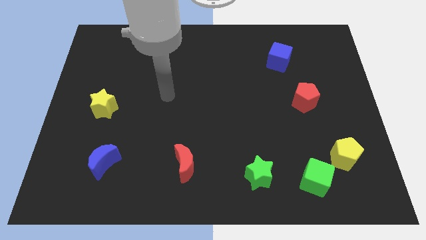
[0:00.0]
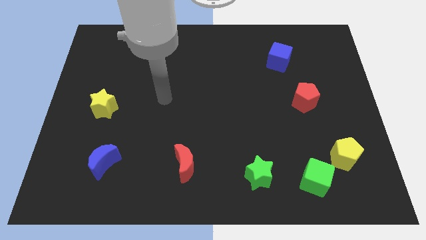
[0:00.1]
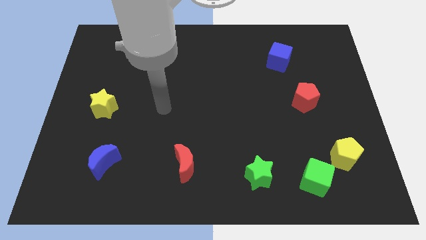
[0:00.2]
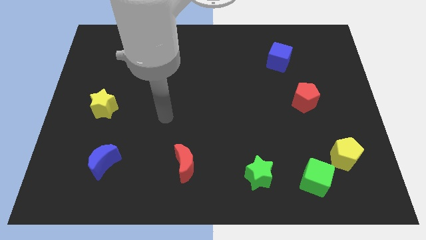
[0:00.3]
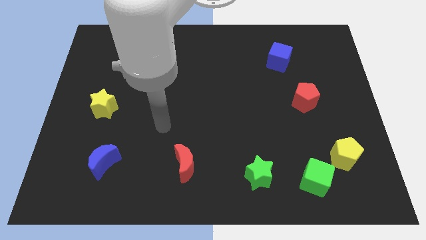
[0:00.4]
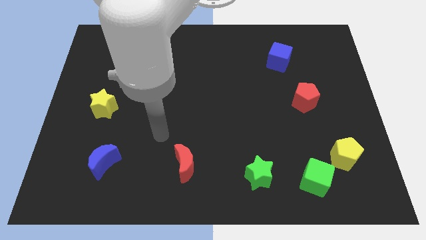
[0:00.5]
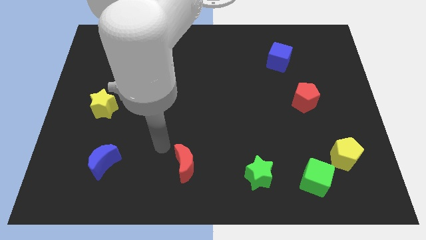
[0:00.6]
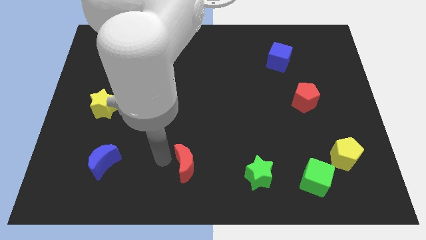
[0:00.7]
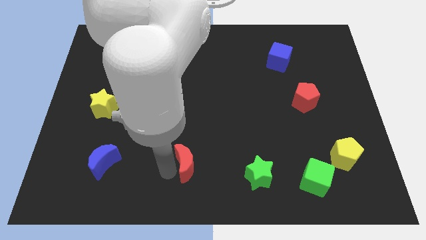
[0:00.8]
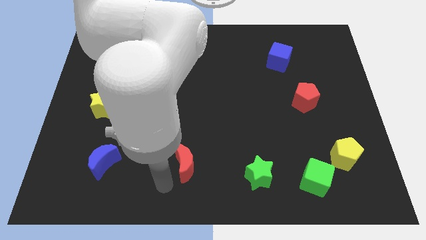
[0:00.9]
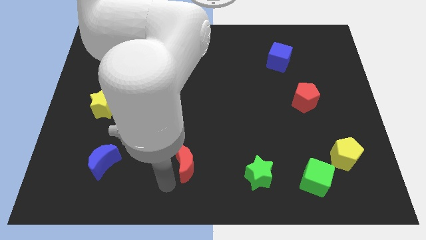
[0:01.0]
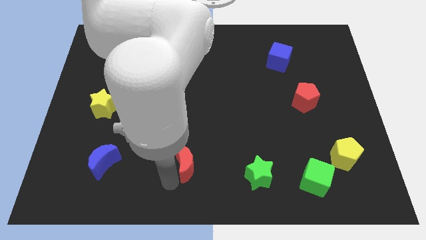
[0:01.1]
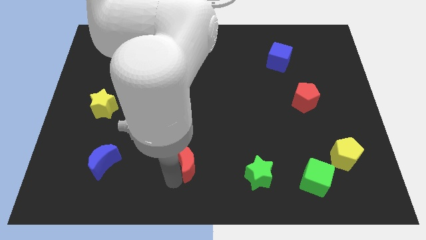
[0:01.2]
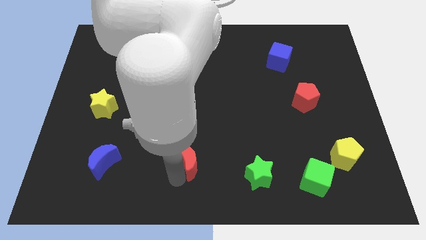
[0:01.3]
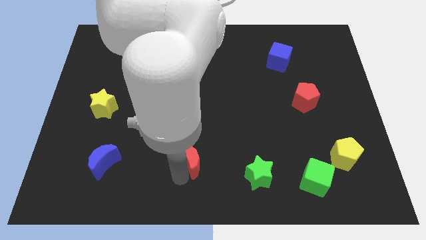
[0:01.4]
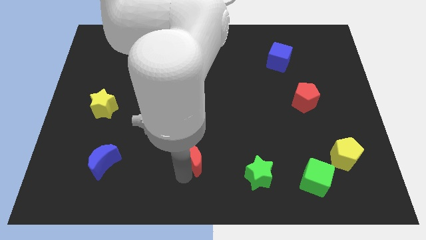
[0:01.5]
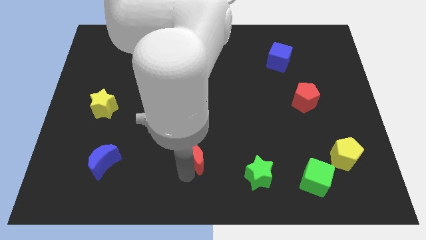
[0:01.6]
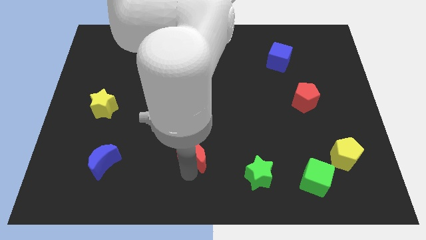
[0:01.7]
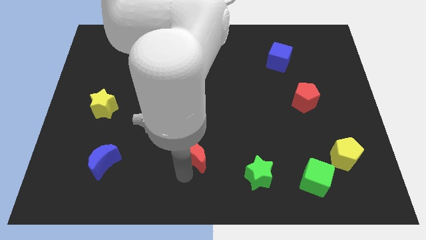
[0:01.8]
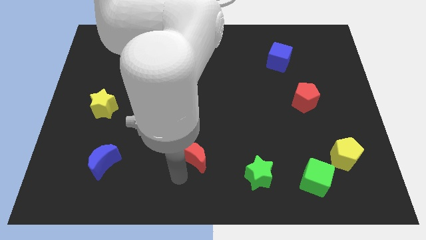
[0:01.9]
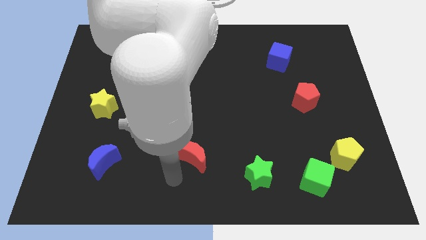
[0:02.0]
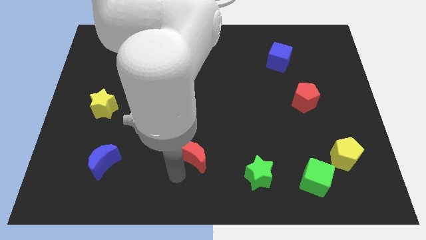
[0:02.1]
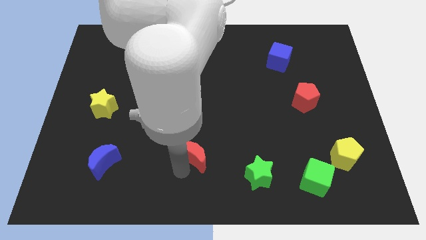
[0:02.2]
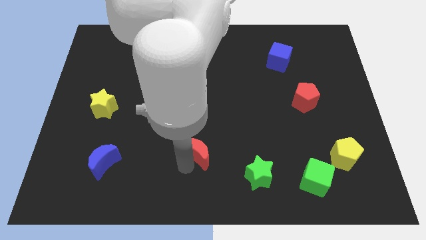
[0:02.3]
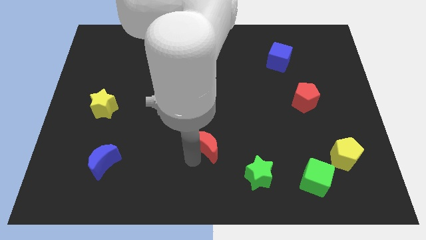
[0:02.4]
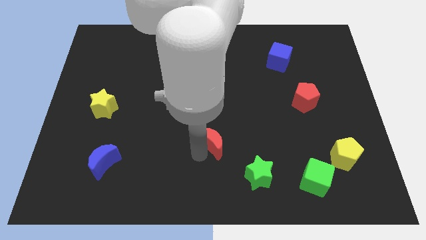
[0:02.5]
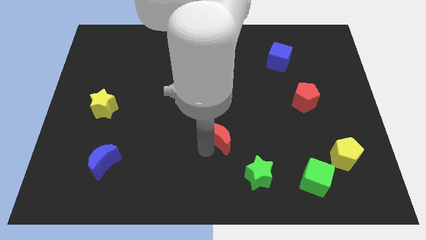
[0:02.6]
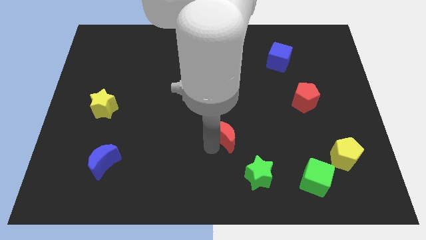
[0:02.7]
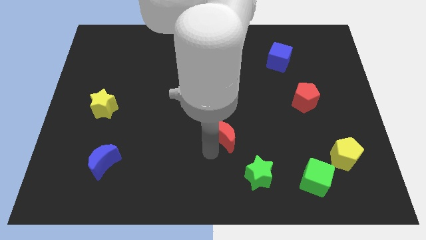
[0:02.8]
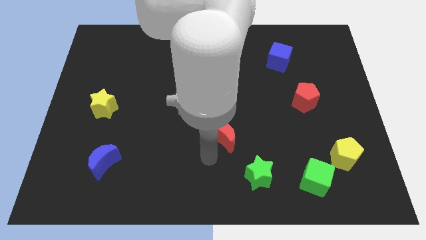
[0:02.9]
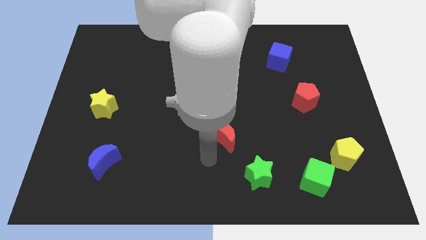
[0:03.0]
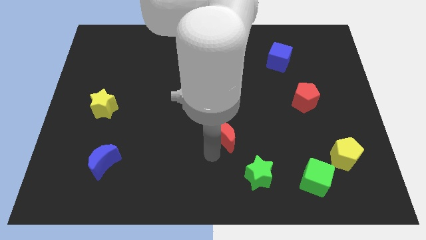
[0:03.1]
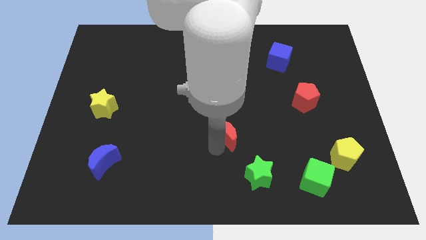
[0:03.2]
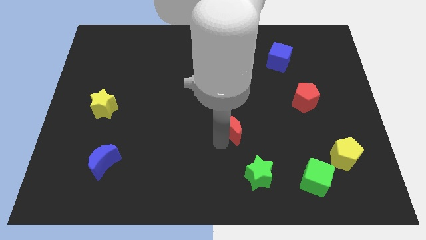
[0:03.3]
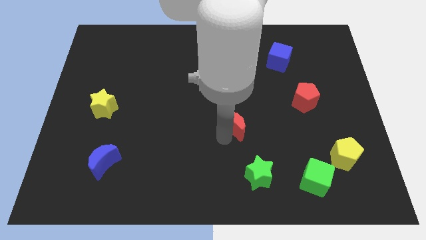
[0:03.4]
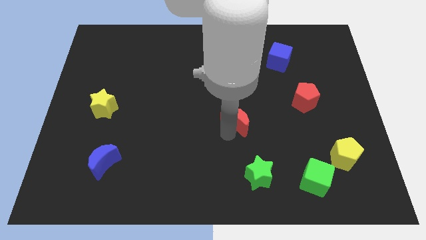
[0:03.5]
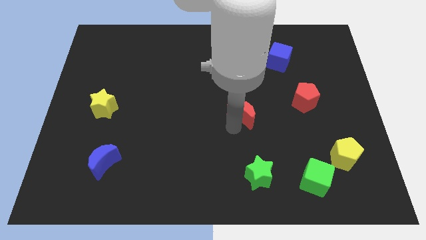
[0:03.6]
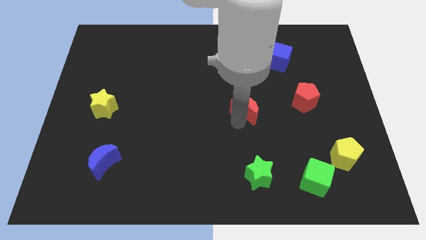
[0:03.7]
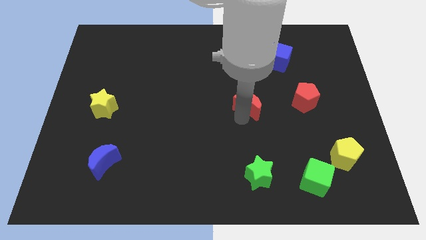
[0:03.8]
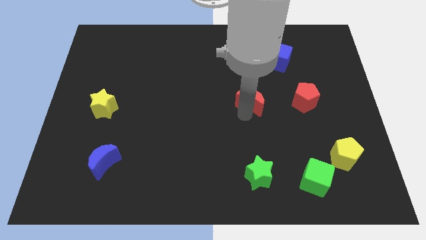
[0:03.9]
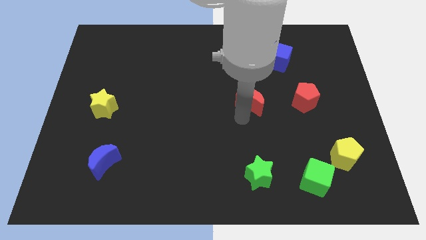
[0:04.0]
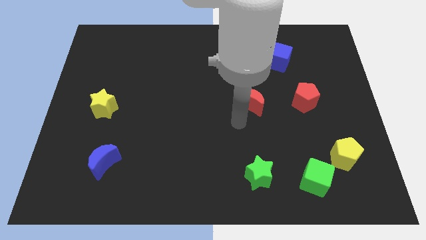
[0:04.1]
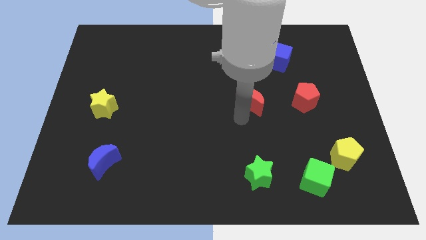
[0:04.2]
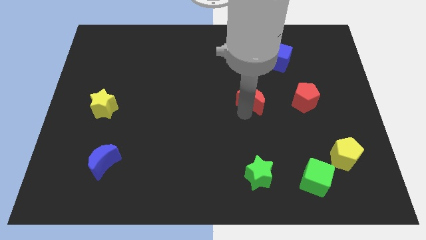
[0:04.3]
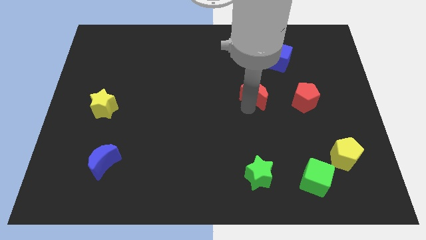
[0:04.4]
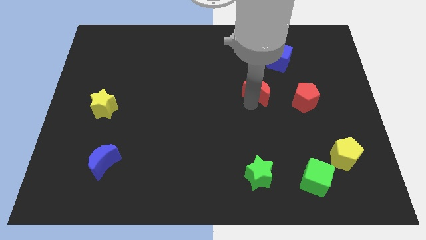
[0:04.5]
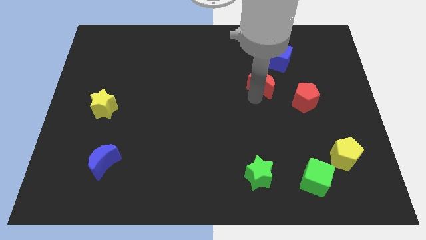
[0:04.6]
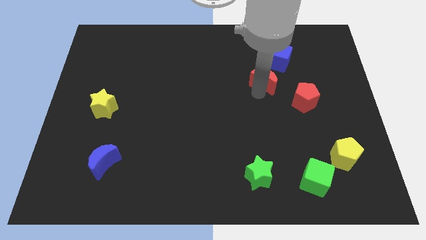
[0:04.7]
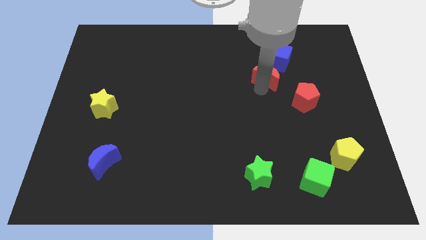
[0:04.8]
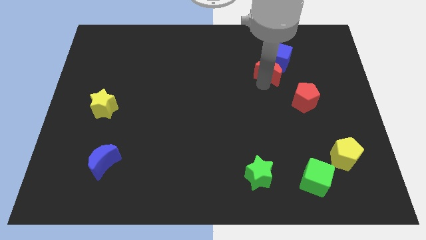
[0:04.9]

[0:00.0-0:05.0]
move the red moon close to the blue cube

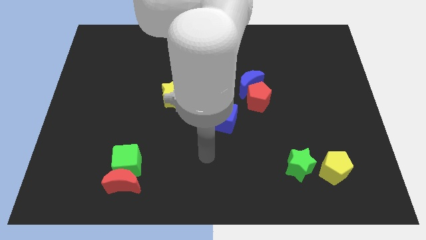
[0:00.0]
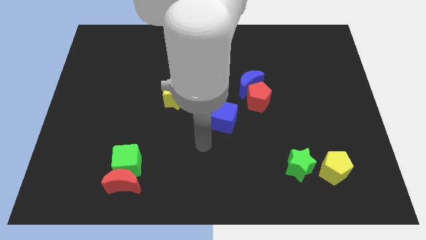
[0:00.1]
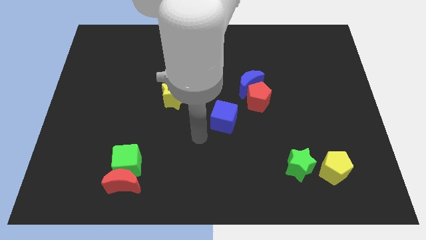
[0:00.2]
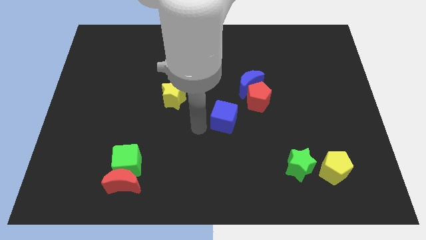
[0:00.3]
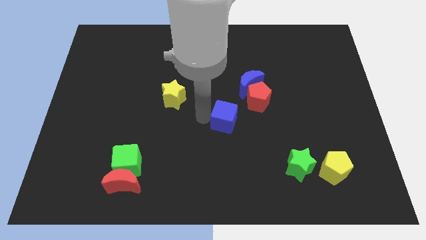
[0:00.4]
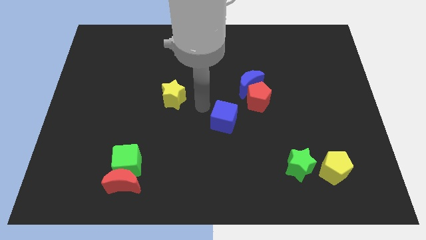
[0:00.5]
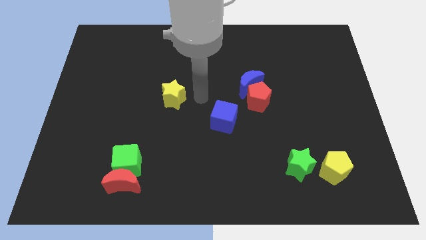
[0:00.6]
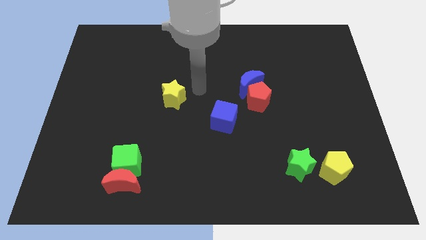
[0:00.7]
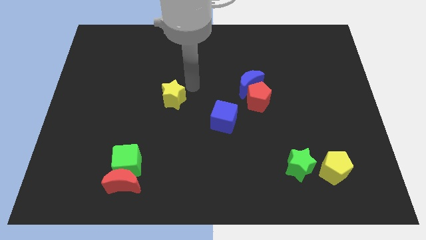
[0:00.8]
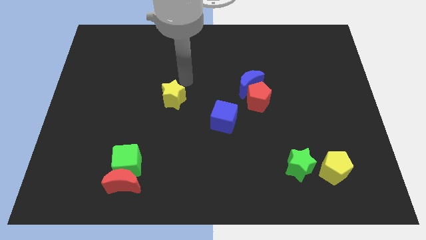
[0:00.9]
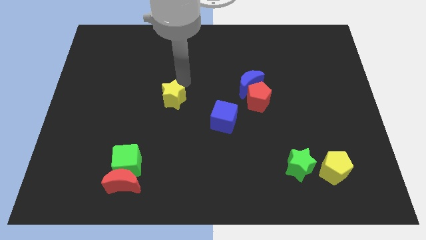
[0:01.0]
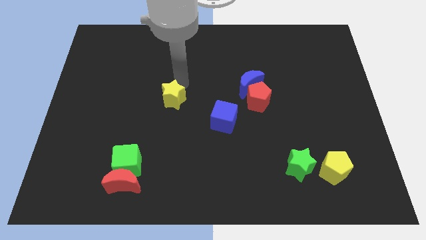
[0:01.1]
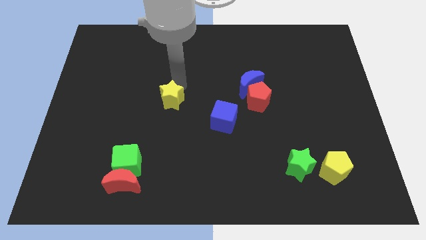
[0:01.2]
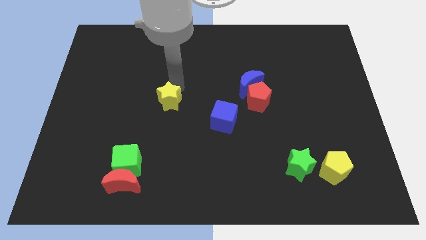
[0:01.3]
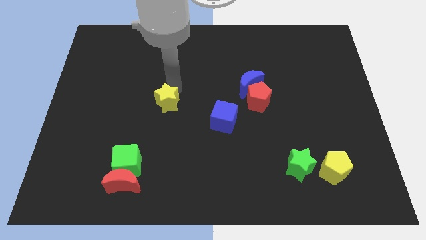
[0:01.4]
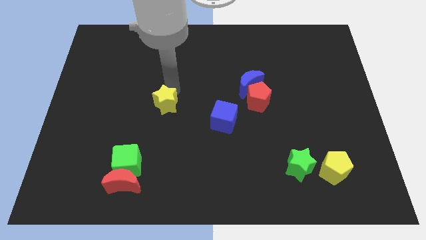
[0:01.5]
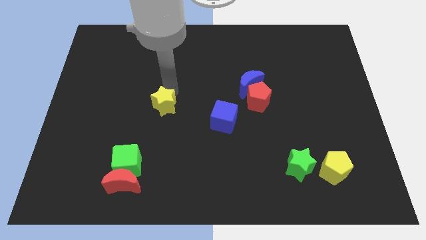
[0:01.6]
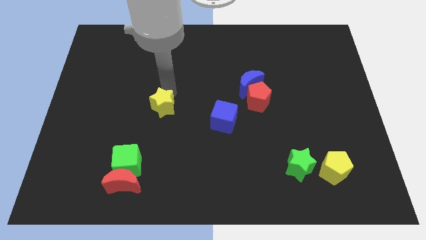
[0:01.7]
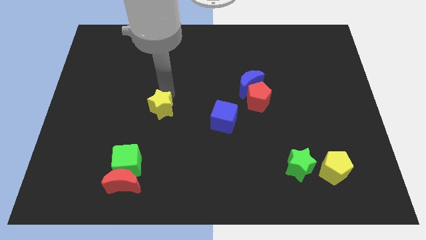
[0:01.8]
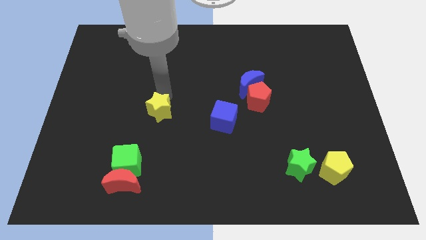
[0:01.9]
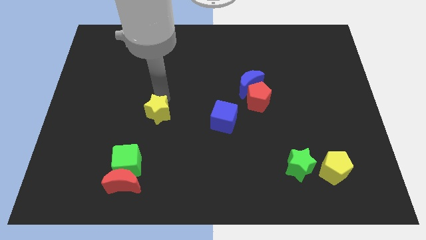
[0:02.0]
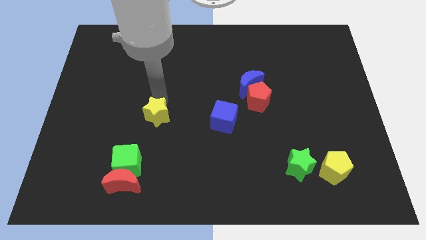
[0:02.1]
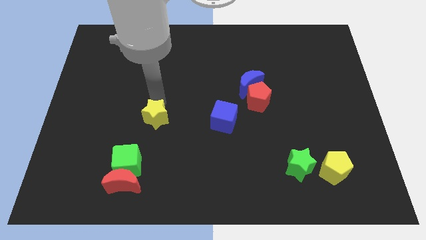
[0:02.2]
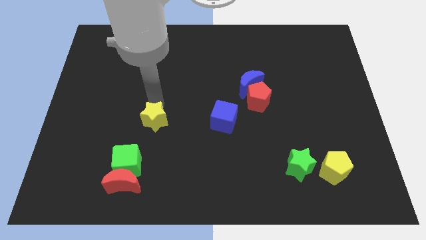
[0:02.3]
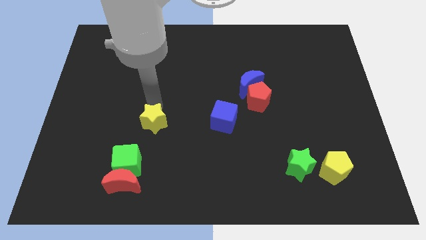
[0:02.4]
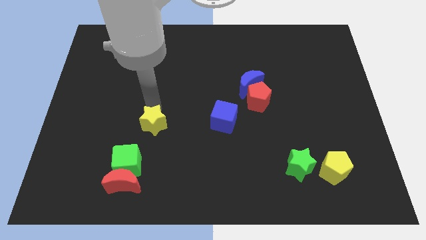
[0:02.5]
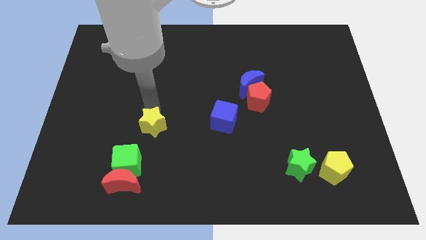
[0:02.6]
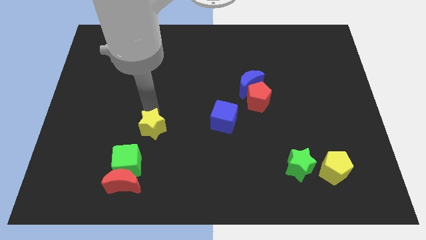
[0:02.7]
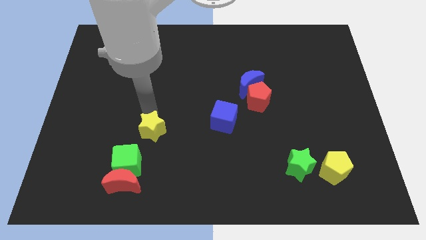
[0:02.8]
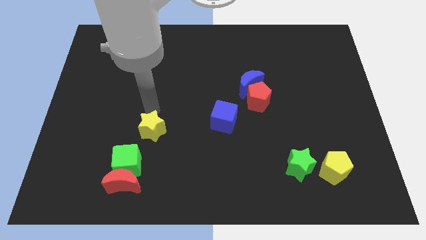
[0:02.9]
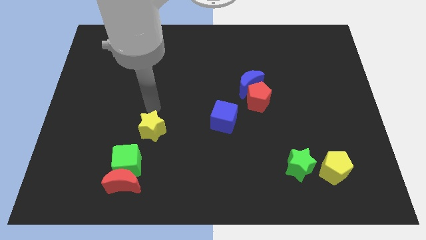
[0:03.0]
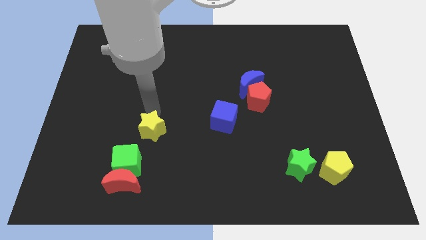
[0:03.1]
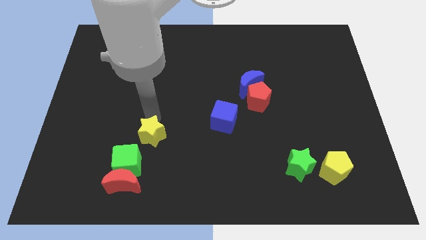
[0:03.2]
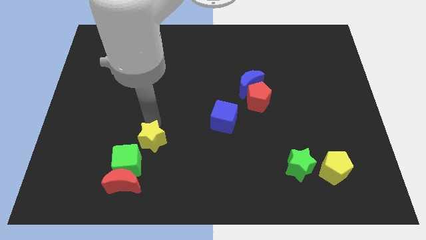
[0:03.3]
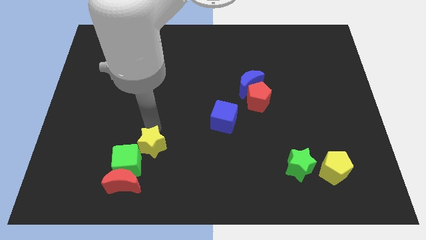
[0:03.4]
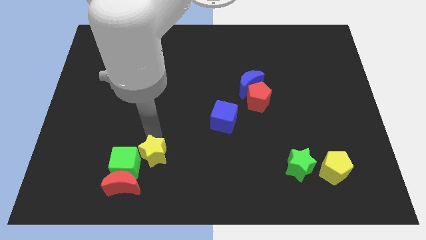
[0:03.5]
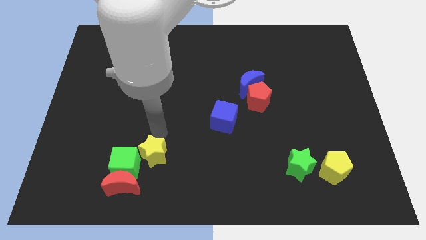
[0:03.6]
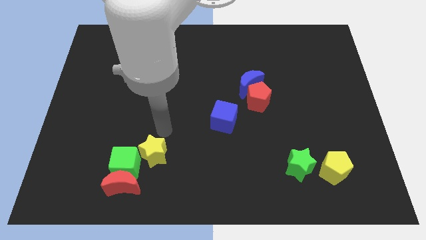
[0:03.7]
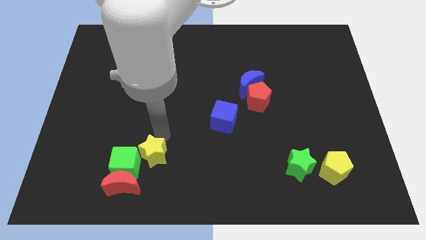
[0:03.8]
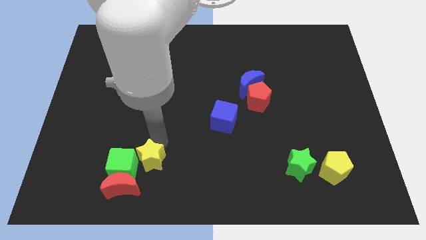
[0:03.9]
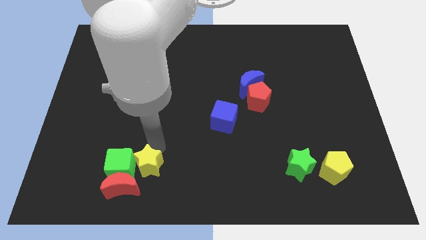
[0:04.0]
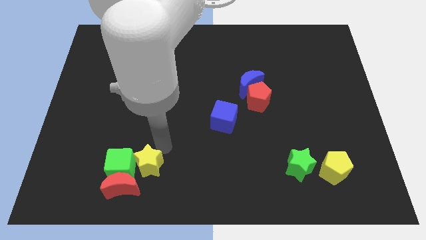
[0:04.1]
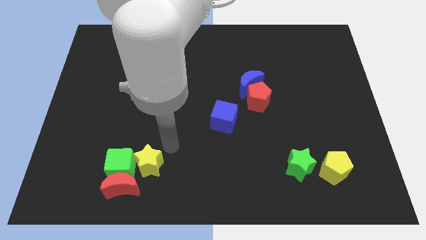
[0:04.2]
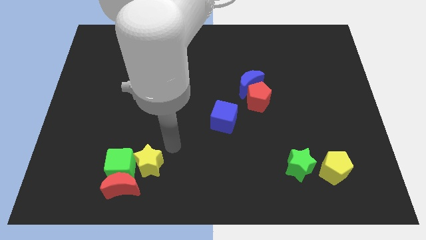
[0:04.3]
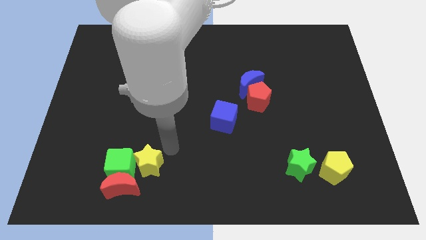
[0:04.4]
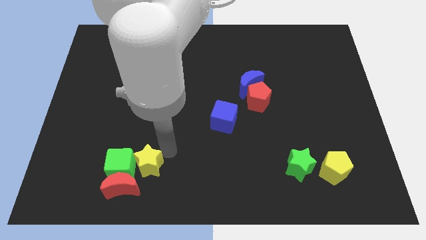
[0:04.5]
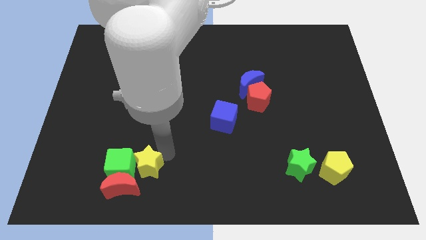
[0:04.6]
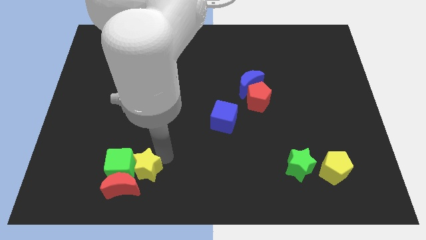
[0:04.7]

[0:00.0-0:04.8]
slide the yellow star next to the red moon
